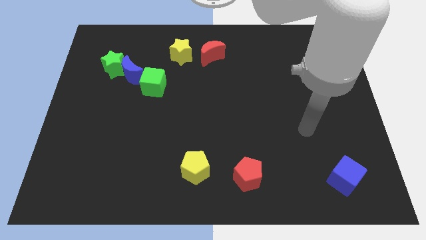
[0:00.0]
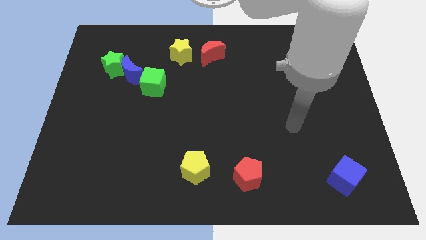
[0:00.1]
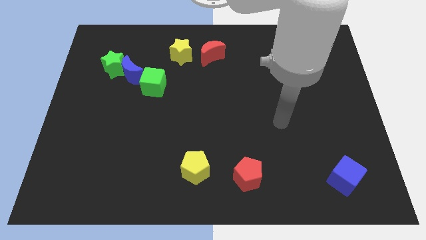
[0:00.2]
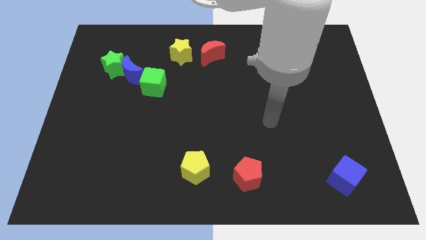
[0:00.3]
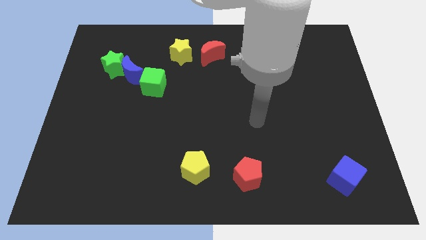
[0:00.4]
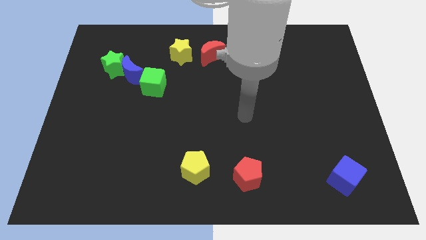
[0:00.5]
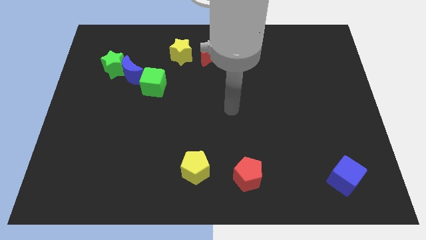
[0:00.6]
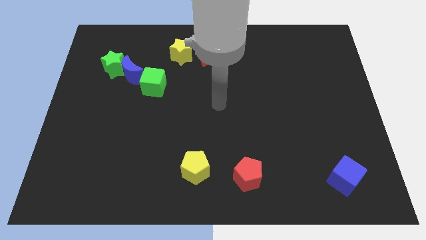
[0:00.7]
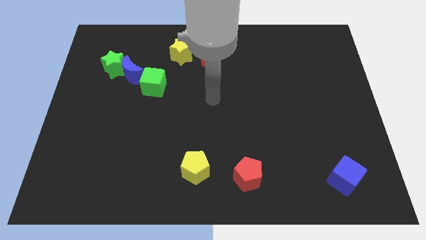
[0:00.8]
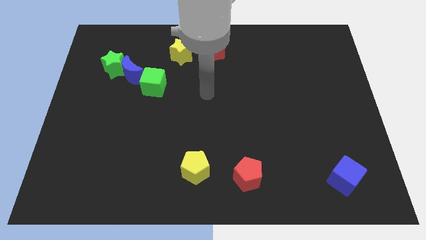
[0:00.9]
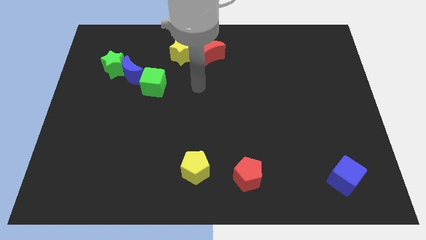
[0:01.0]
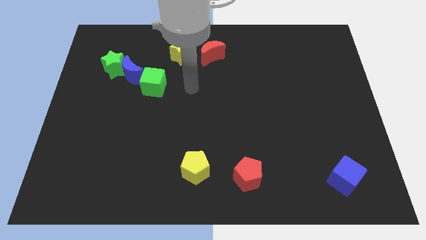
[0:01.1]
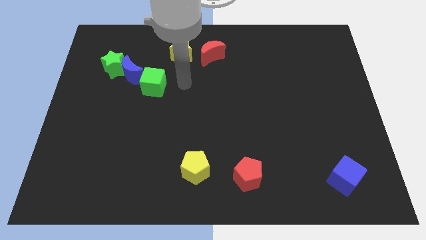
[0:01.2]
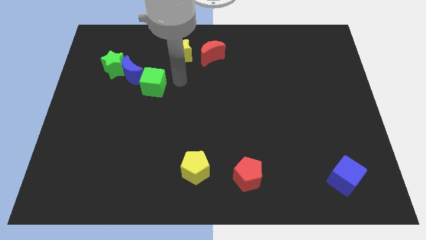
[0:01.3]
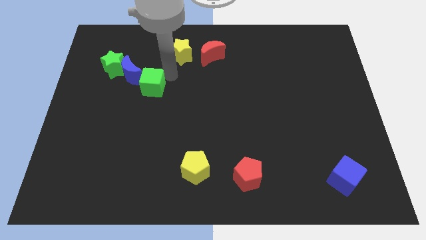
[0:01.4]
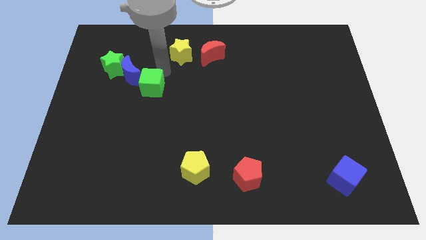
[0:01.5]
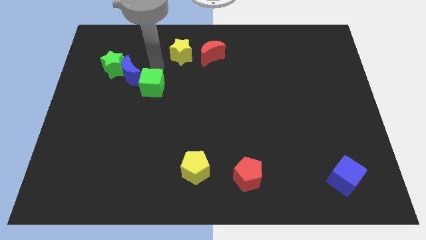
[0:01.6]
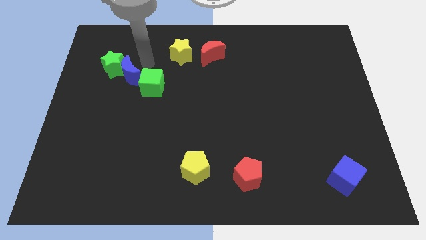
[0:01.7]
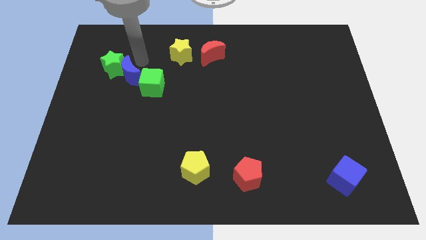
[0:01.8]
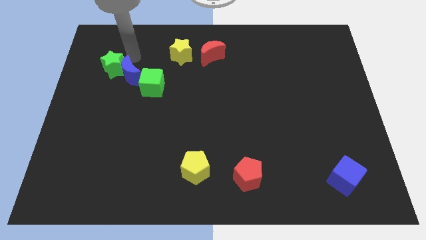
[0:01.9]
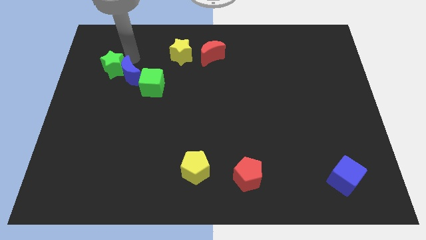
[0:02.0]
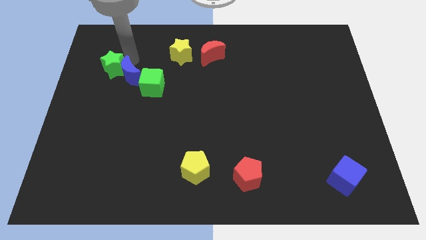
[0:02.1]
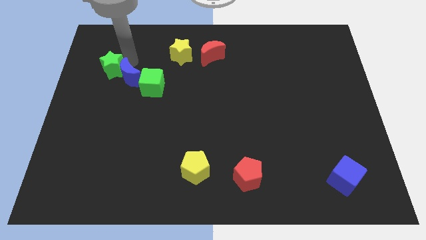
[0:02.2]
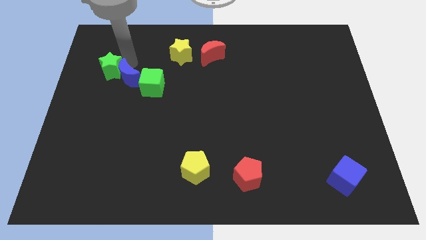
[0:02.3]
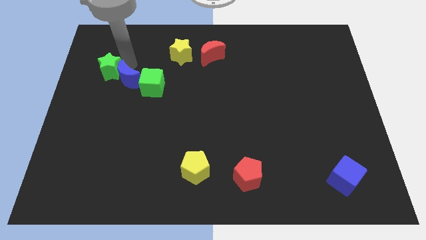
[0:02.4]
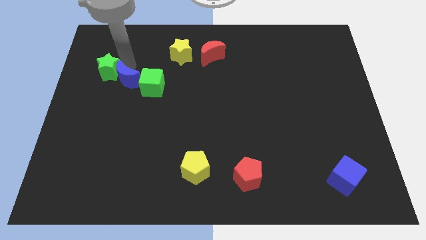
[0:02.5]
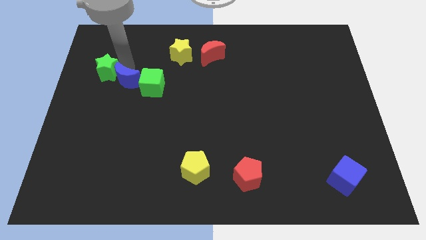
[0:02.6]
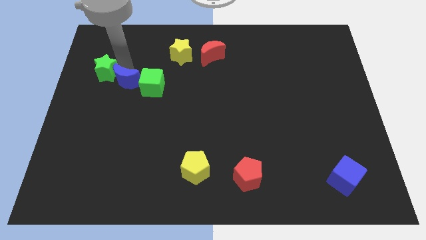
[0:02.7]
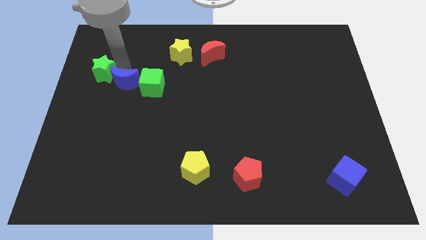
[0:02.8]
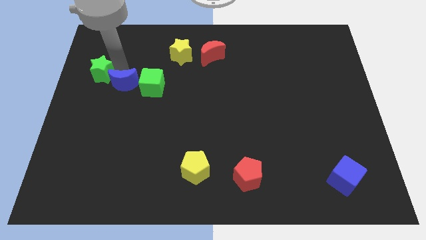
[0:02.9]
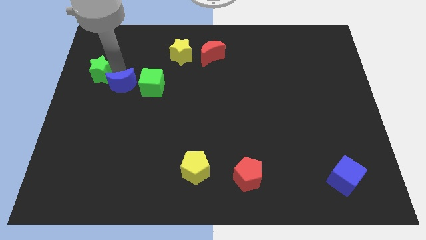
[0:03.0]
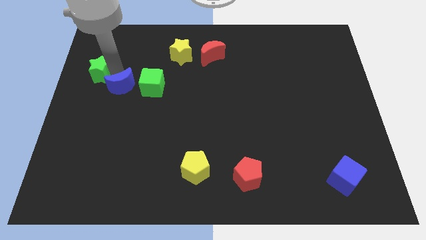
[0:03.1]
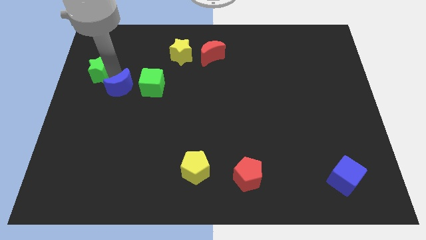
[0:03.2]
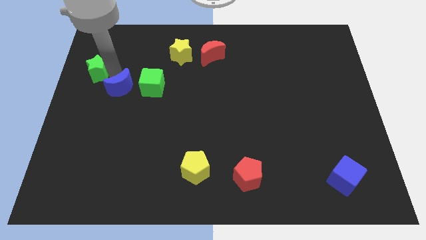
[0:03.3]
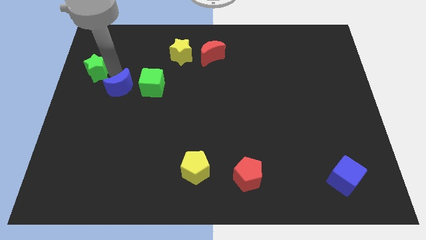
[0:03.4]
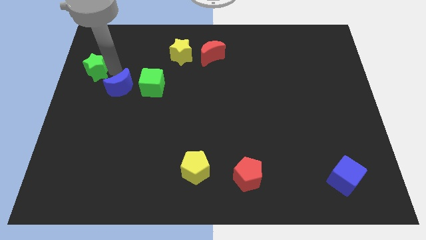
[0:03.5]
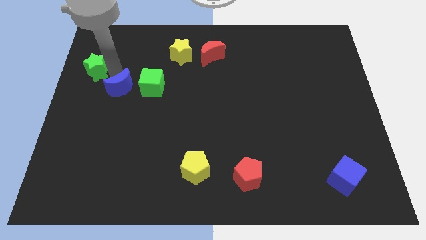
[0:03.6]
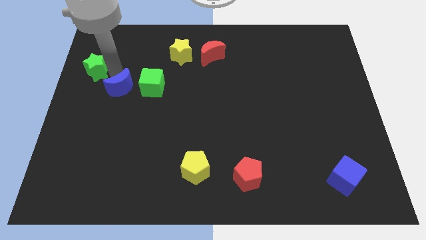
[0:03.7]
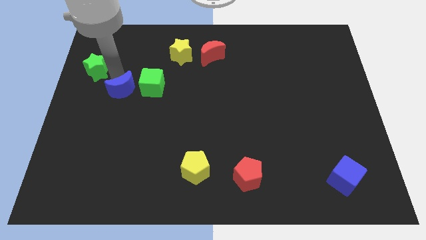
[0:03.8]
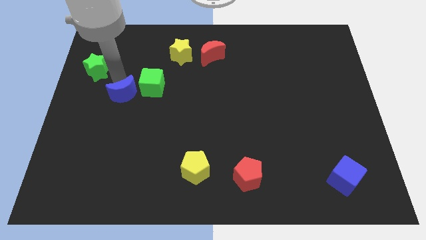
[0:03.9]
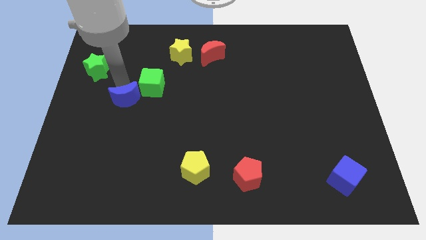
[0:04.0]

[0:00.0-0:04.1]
push the blue moon downwards a bit

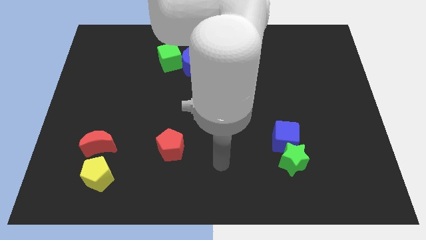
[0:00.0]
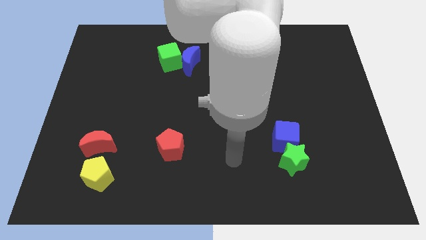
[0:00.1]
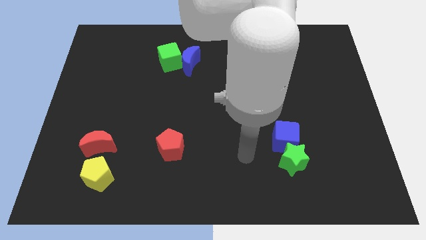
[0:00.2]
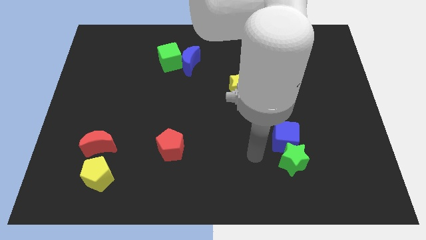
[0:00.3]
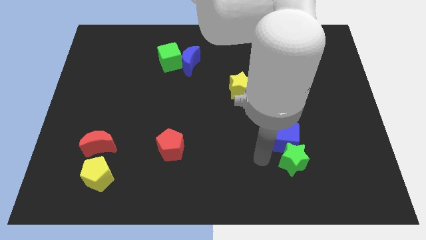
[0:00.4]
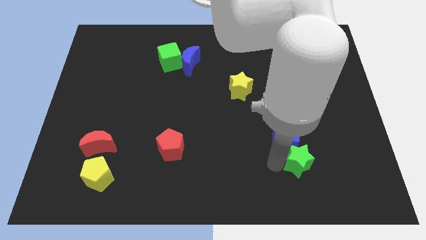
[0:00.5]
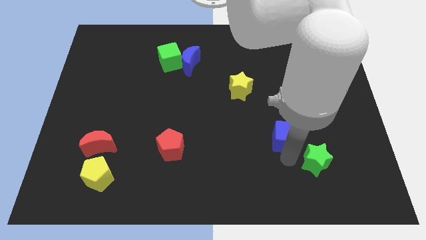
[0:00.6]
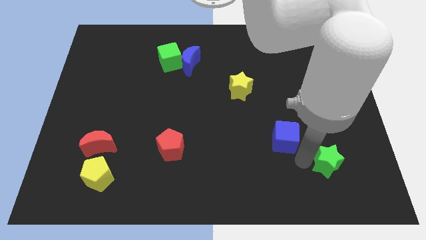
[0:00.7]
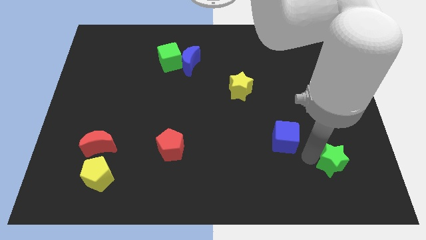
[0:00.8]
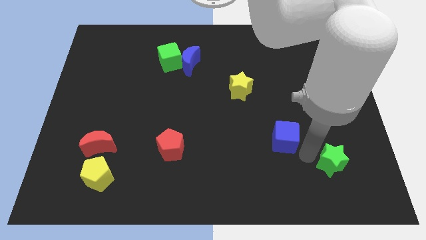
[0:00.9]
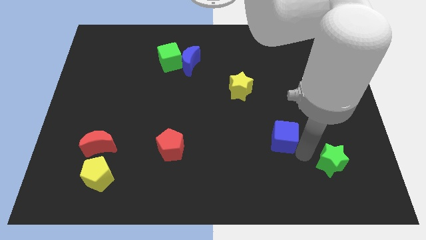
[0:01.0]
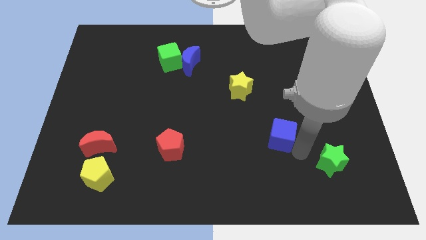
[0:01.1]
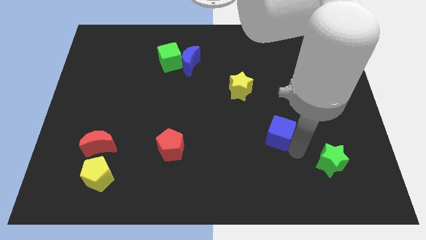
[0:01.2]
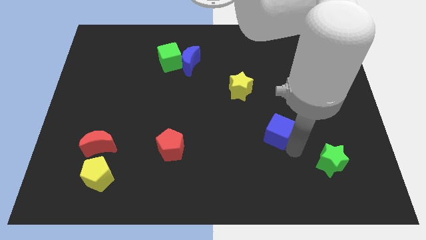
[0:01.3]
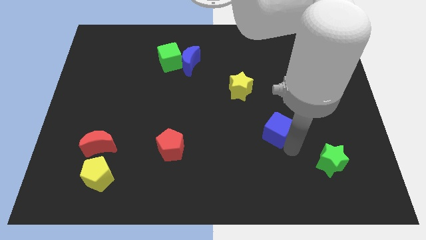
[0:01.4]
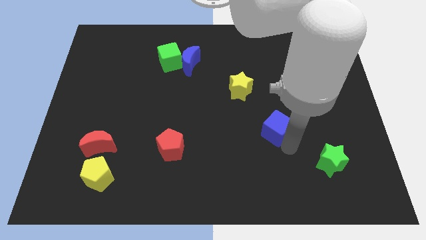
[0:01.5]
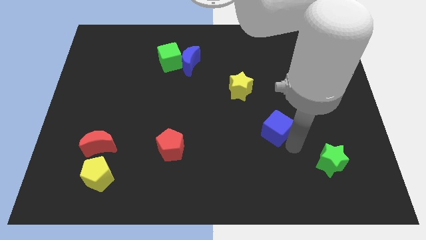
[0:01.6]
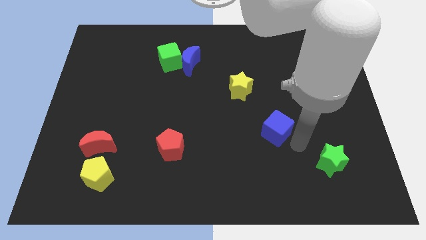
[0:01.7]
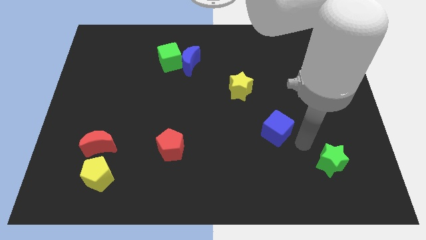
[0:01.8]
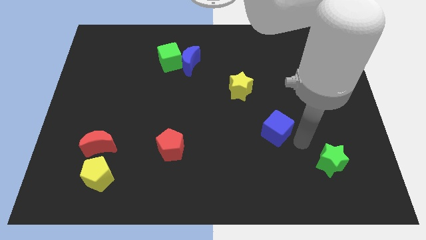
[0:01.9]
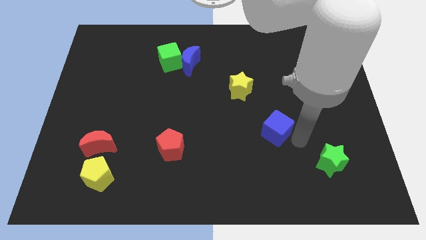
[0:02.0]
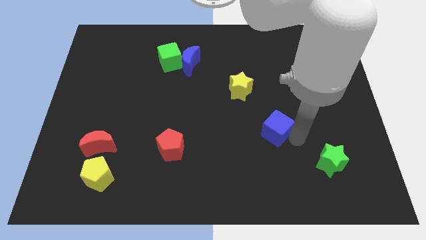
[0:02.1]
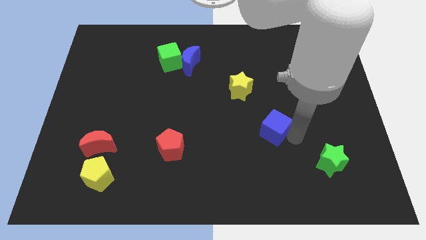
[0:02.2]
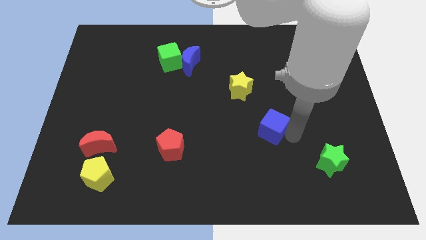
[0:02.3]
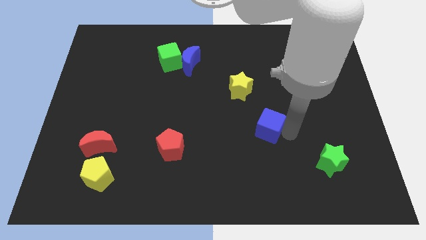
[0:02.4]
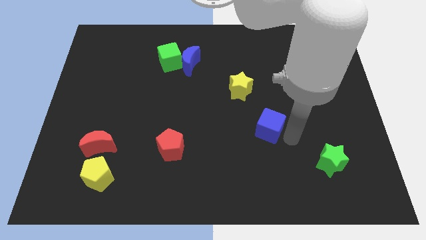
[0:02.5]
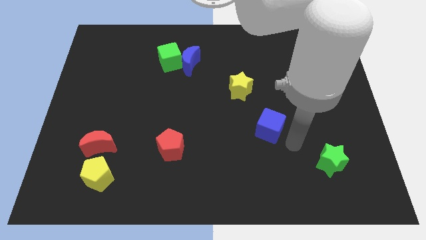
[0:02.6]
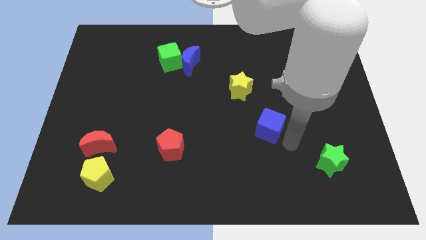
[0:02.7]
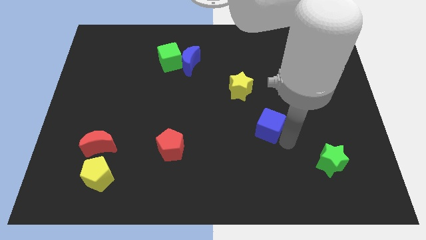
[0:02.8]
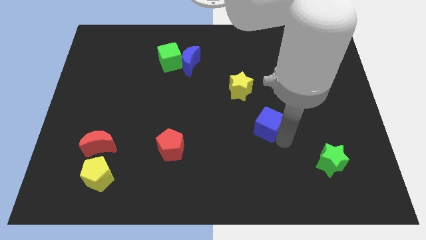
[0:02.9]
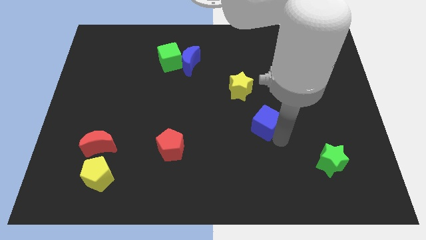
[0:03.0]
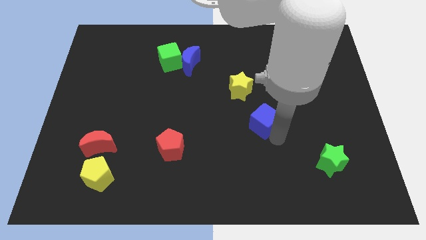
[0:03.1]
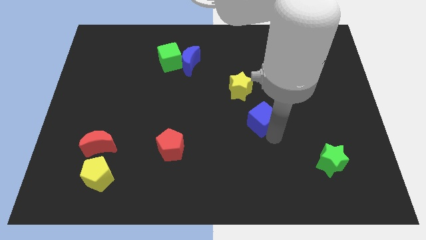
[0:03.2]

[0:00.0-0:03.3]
slide the blue cube up and then left a little

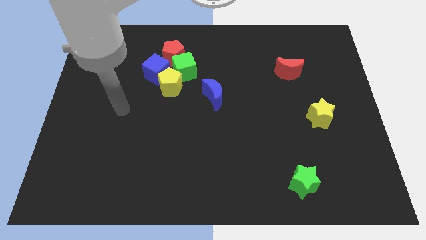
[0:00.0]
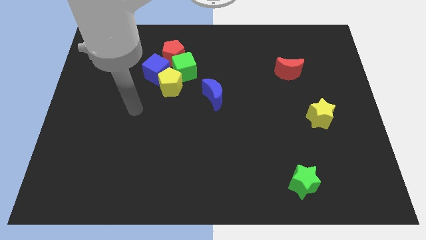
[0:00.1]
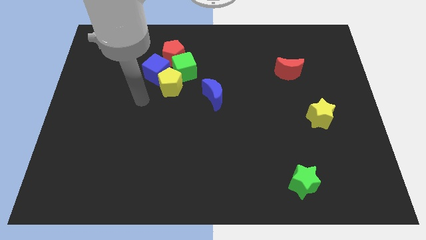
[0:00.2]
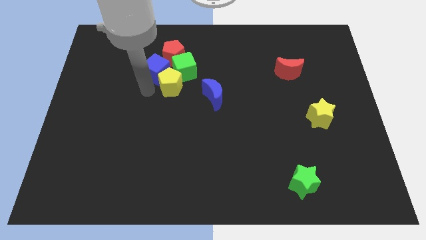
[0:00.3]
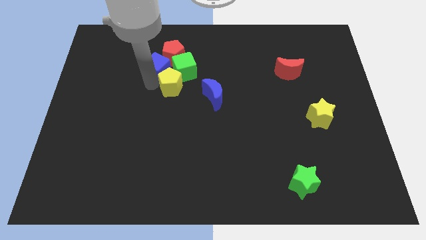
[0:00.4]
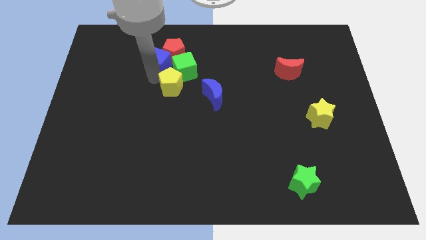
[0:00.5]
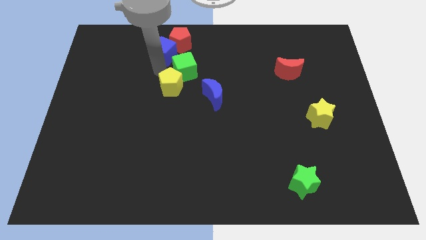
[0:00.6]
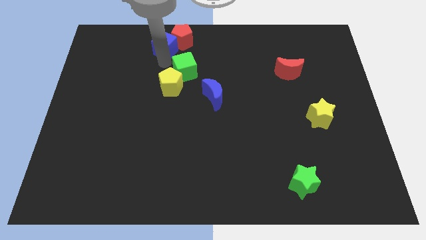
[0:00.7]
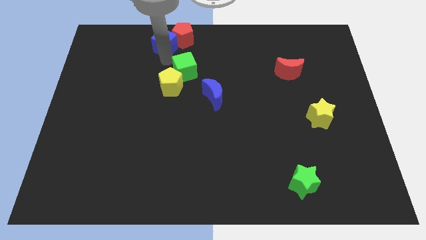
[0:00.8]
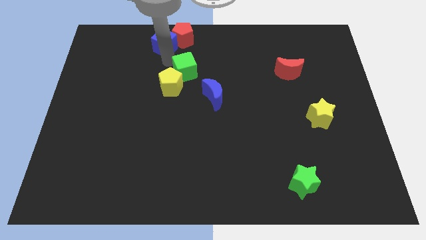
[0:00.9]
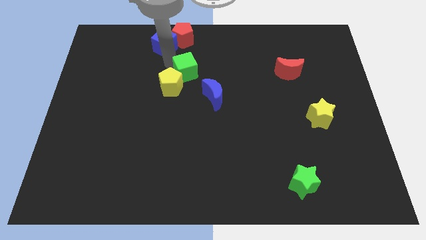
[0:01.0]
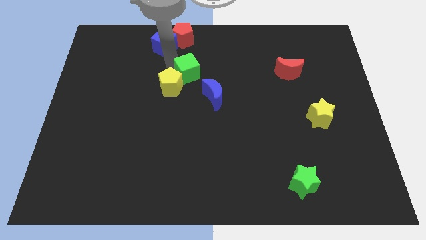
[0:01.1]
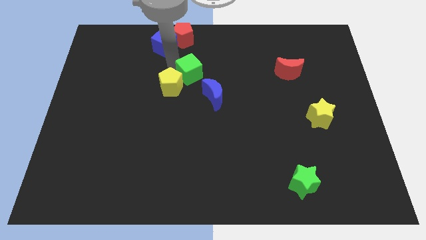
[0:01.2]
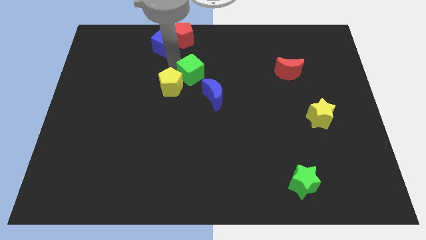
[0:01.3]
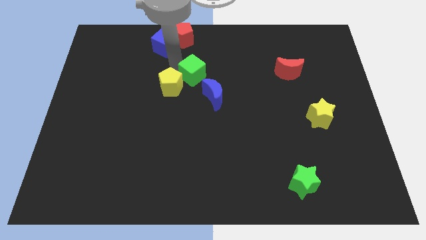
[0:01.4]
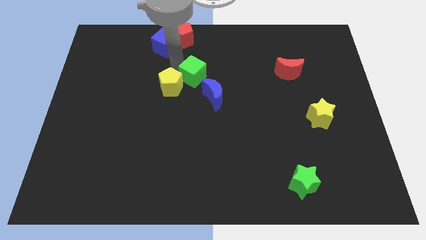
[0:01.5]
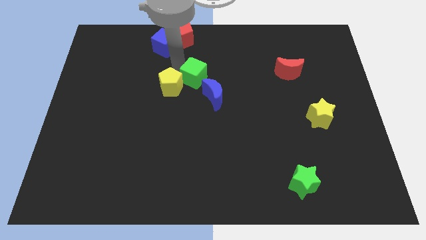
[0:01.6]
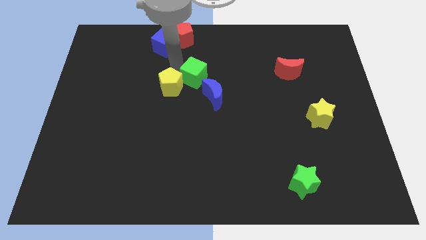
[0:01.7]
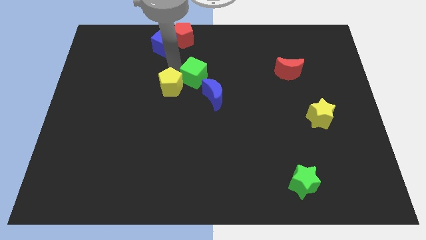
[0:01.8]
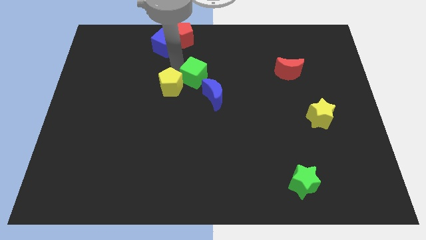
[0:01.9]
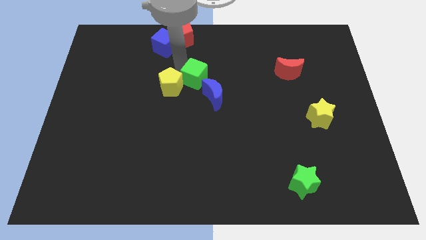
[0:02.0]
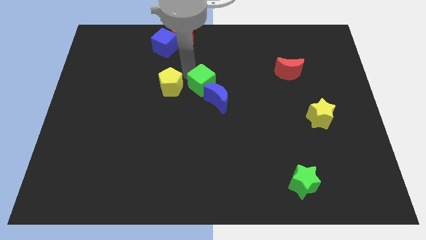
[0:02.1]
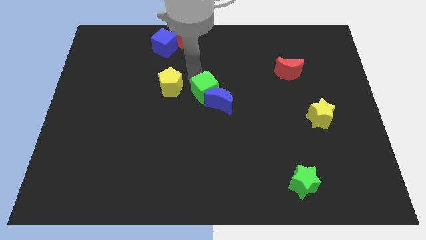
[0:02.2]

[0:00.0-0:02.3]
move the green cube downwards and then to the right slightly
